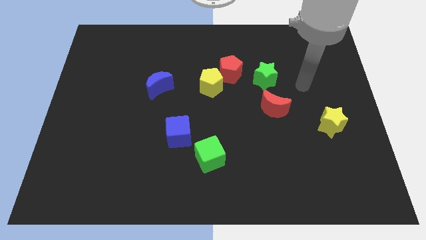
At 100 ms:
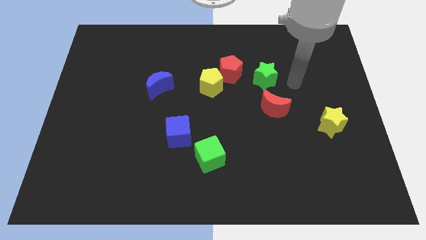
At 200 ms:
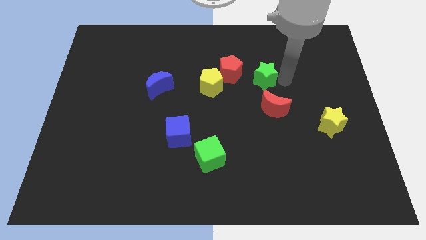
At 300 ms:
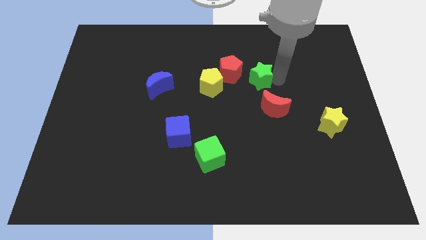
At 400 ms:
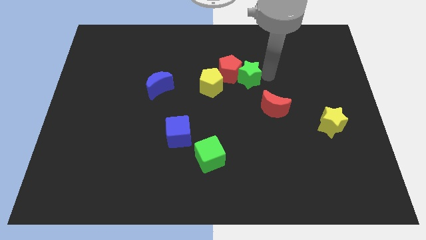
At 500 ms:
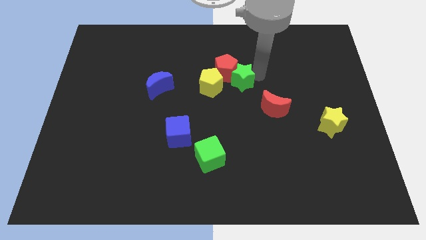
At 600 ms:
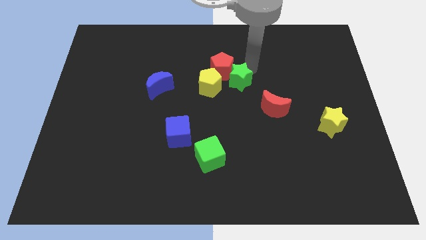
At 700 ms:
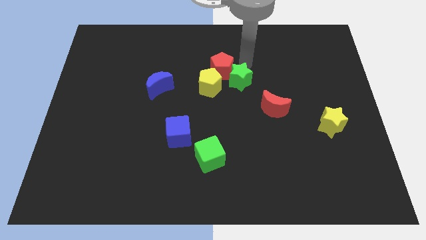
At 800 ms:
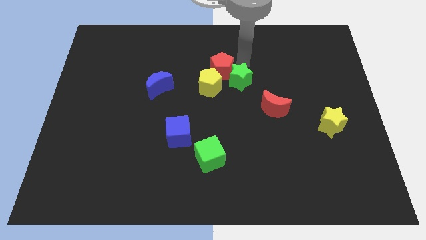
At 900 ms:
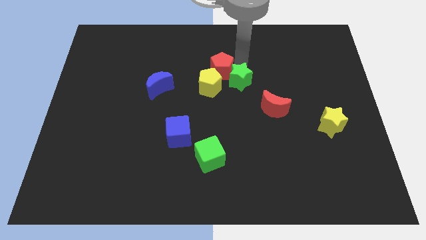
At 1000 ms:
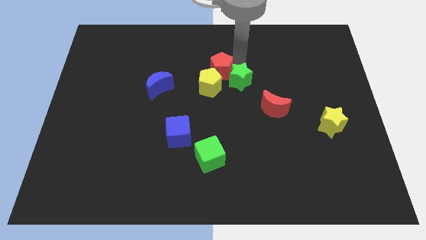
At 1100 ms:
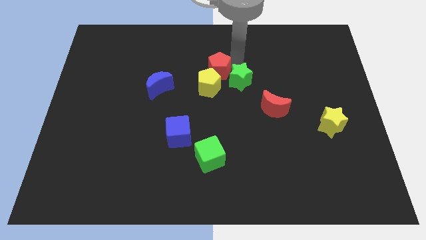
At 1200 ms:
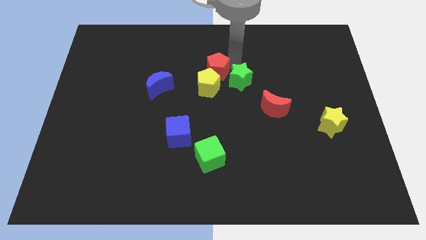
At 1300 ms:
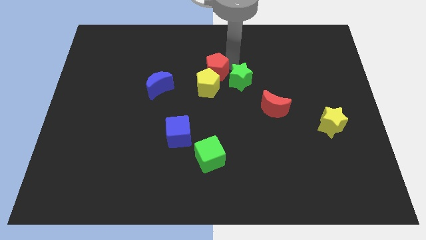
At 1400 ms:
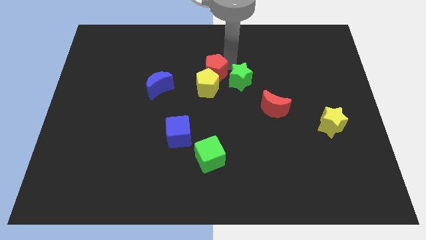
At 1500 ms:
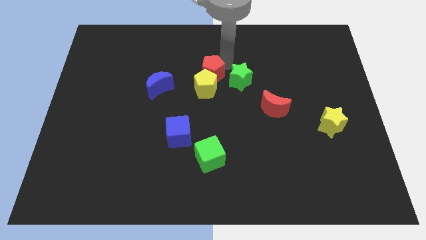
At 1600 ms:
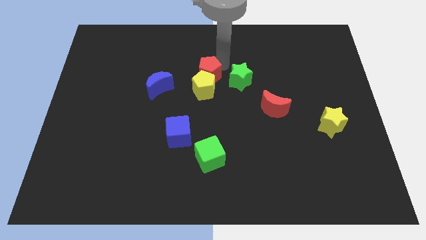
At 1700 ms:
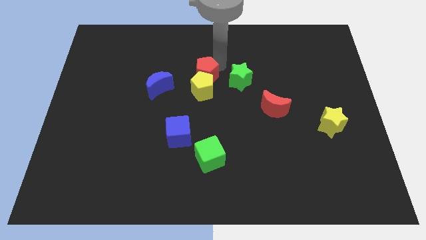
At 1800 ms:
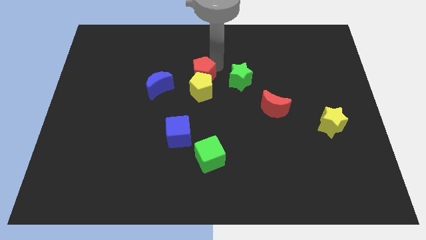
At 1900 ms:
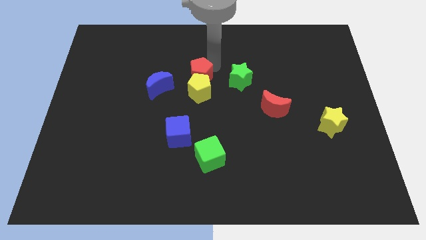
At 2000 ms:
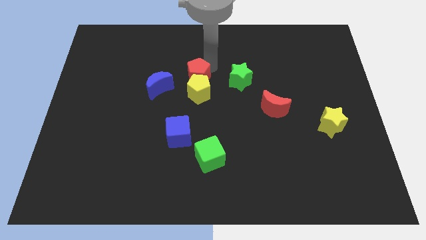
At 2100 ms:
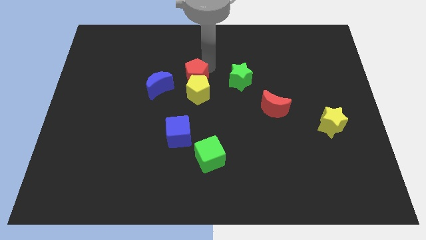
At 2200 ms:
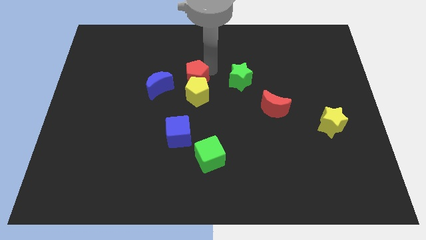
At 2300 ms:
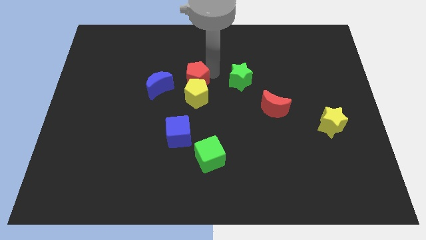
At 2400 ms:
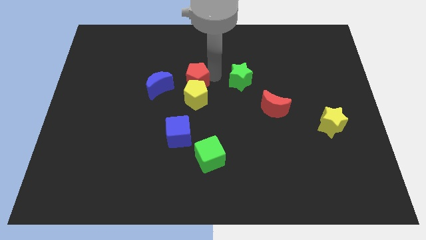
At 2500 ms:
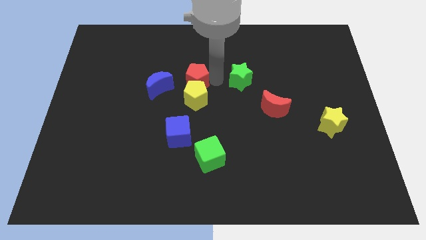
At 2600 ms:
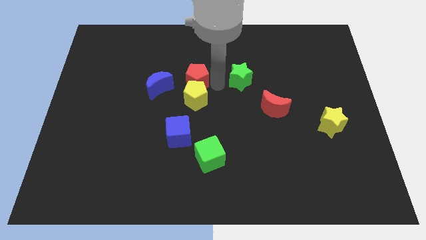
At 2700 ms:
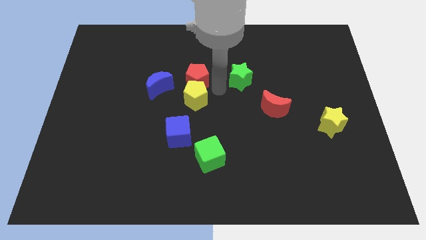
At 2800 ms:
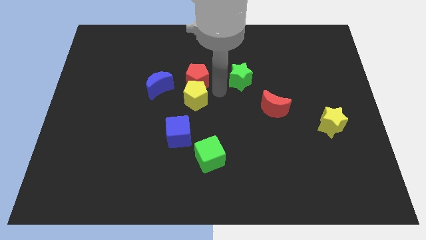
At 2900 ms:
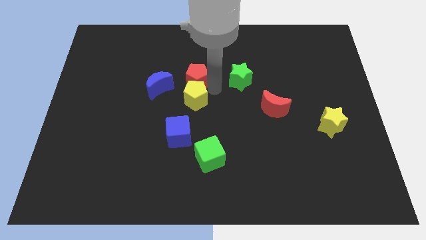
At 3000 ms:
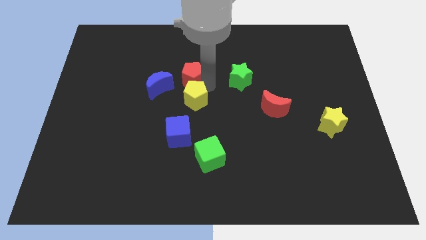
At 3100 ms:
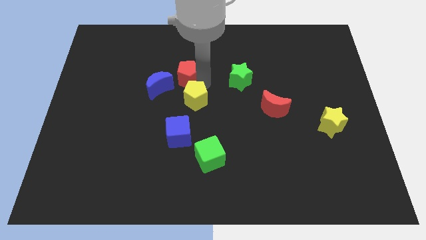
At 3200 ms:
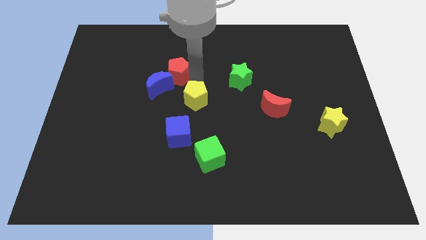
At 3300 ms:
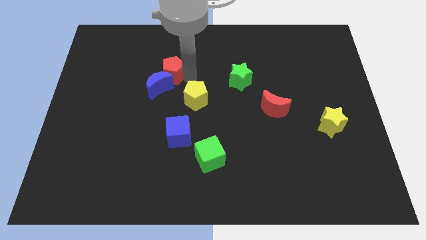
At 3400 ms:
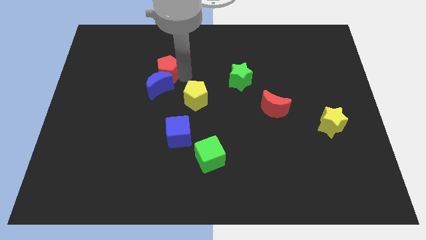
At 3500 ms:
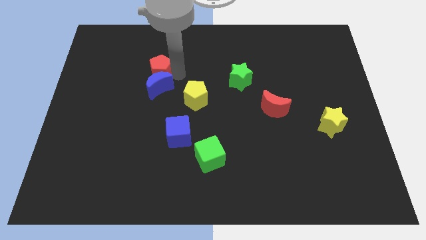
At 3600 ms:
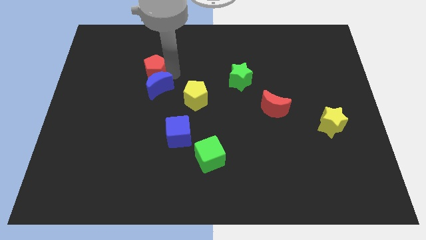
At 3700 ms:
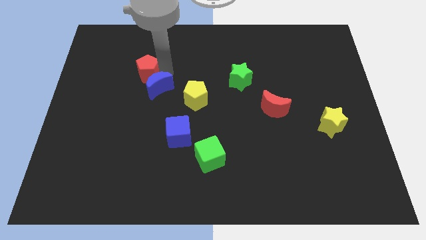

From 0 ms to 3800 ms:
move the red pentagon to the left

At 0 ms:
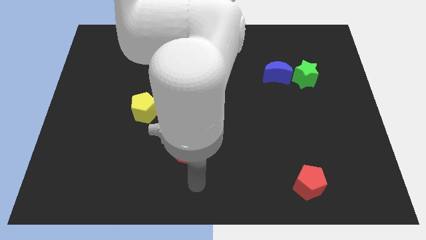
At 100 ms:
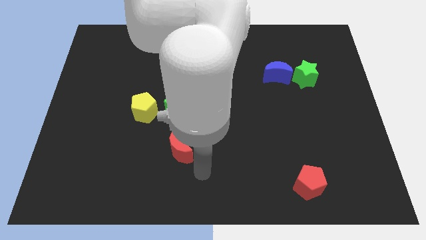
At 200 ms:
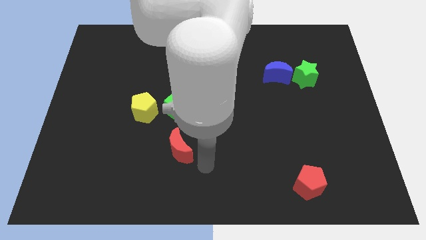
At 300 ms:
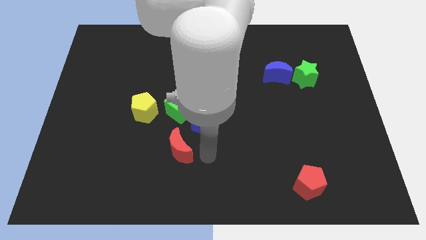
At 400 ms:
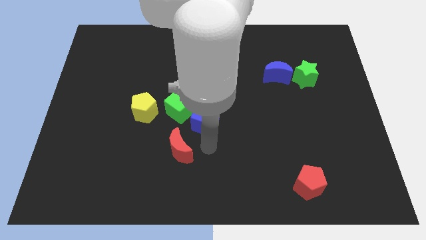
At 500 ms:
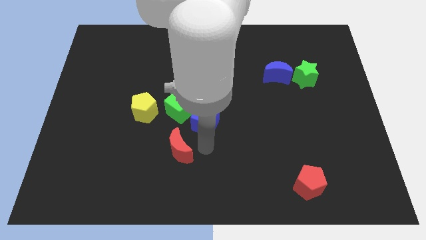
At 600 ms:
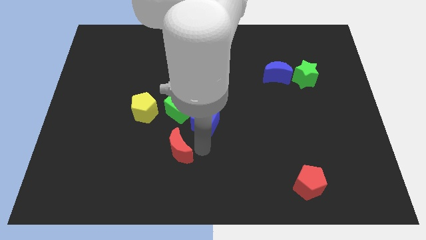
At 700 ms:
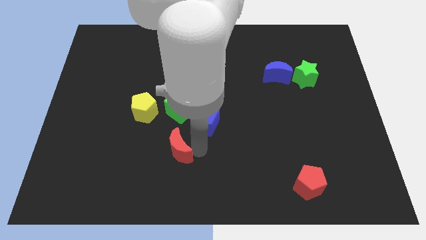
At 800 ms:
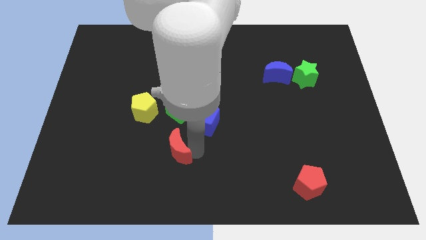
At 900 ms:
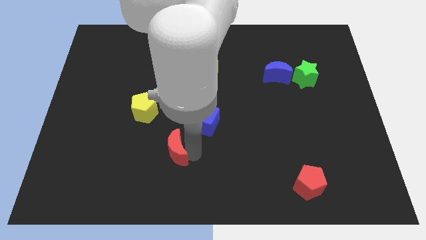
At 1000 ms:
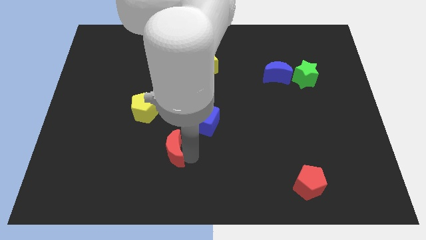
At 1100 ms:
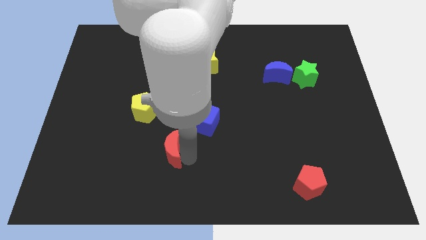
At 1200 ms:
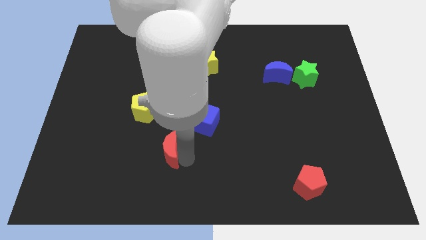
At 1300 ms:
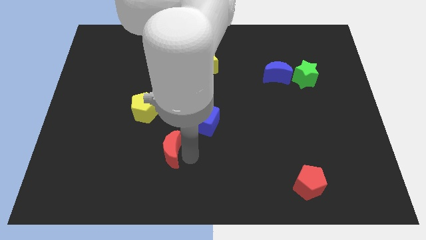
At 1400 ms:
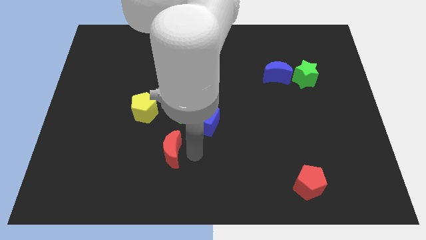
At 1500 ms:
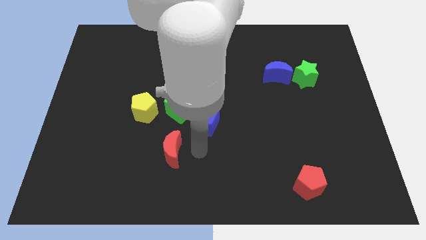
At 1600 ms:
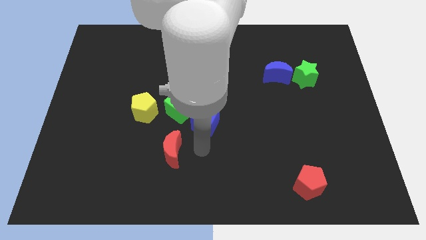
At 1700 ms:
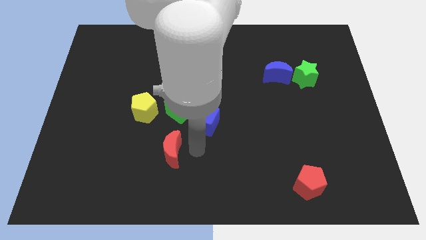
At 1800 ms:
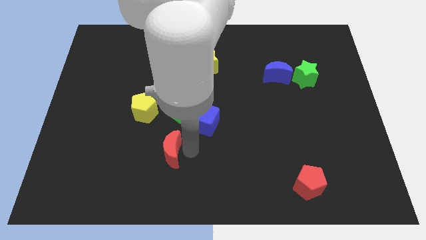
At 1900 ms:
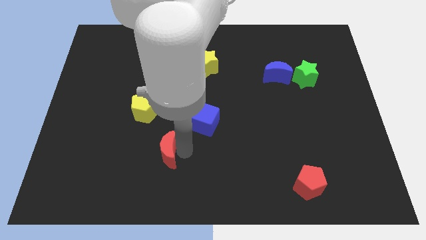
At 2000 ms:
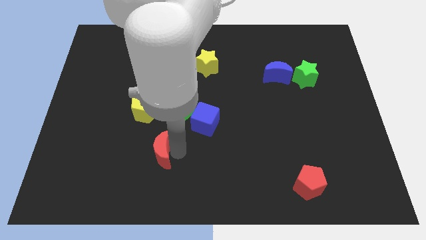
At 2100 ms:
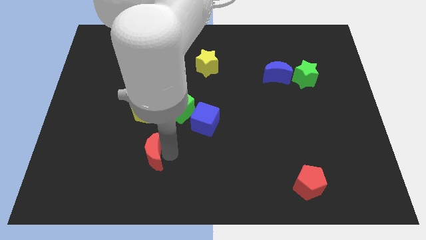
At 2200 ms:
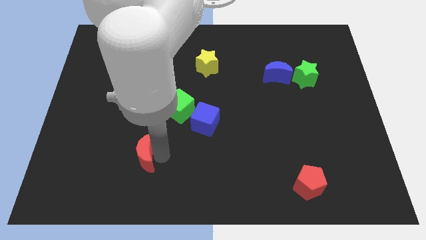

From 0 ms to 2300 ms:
slightly slide the red moon left

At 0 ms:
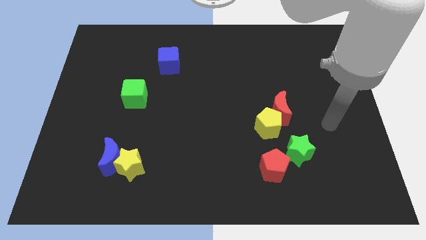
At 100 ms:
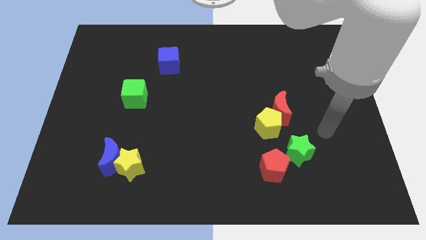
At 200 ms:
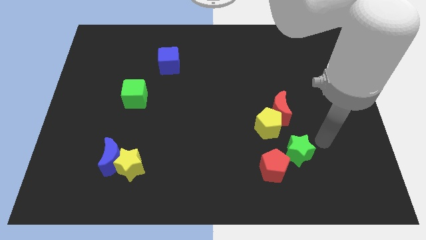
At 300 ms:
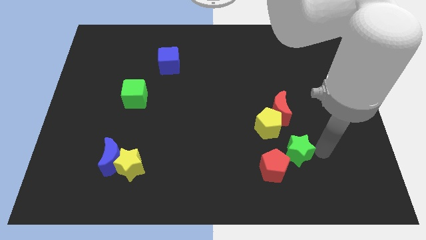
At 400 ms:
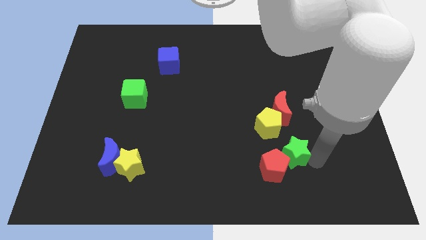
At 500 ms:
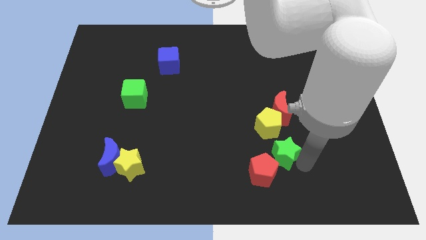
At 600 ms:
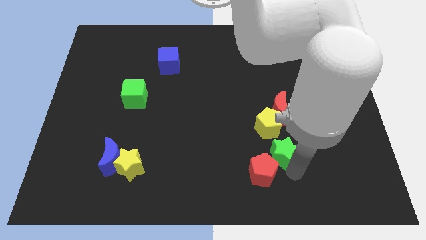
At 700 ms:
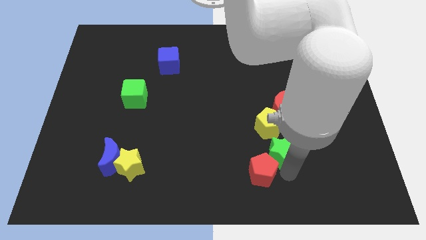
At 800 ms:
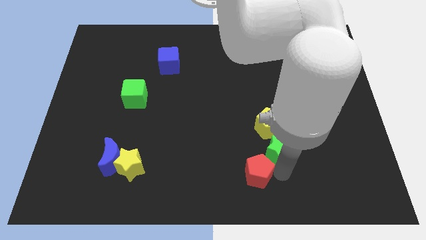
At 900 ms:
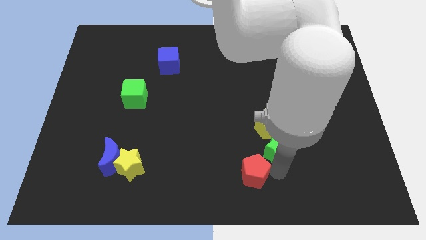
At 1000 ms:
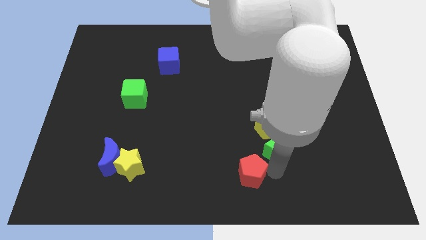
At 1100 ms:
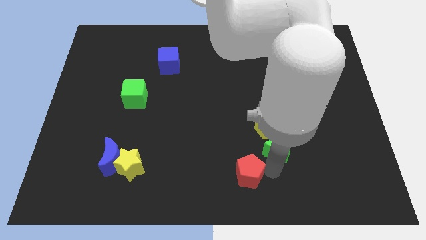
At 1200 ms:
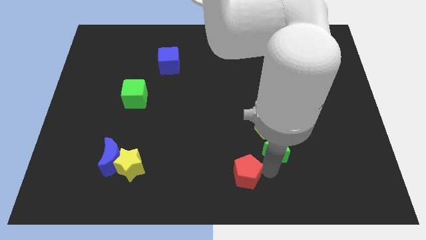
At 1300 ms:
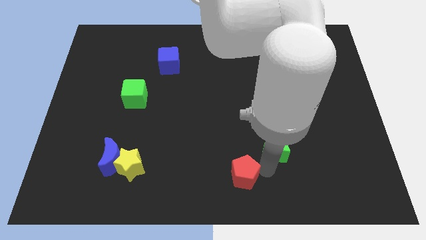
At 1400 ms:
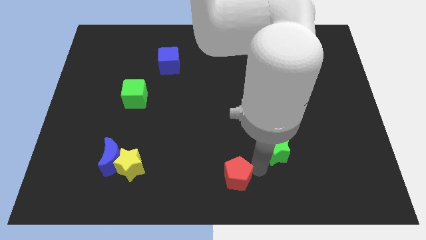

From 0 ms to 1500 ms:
push the red pentagon somewhat left

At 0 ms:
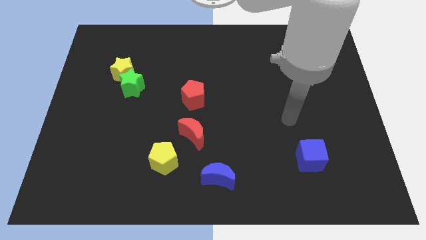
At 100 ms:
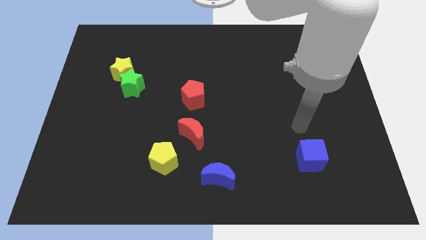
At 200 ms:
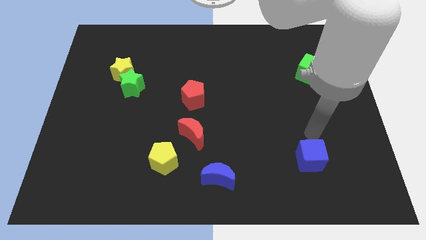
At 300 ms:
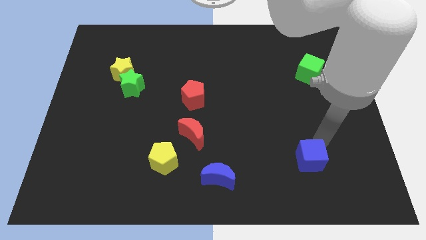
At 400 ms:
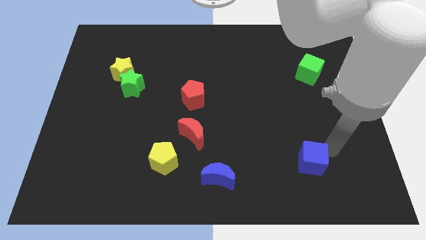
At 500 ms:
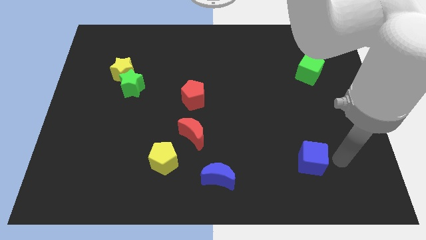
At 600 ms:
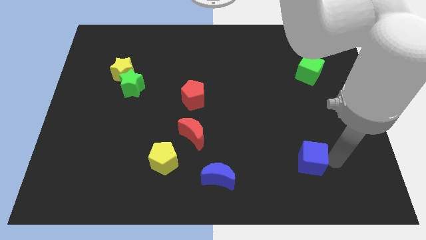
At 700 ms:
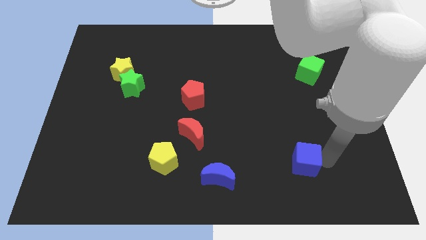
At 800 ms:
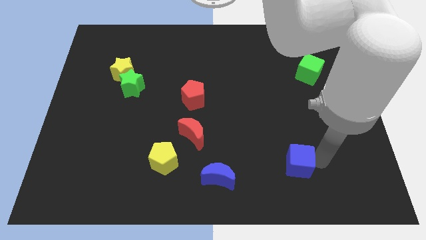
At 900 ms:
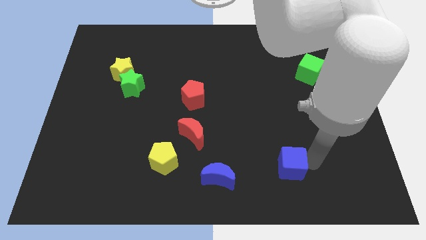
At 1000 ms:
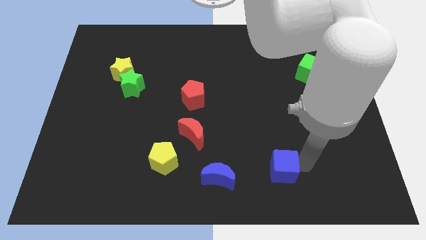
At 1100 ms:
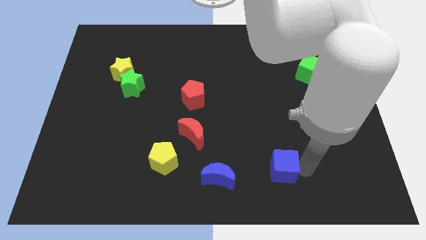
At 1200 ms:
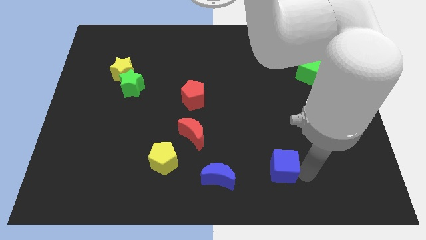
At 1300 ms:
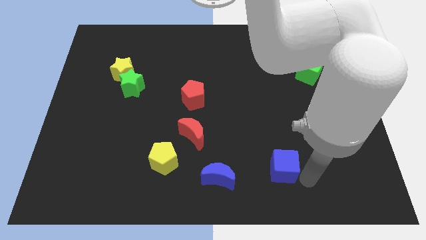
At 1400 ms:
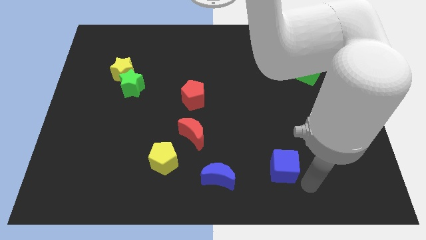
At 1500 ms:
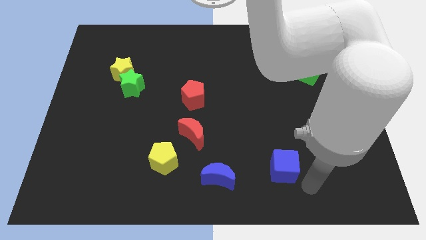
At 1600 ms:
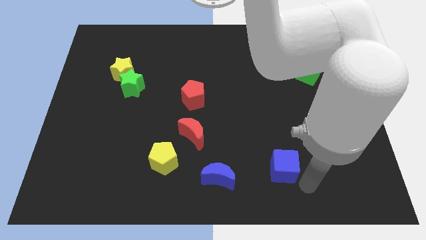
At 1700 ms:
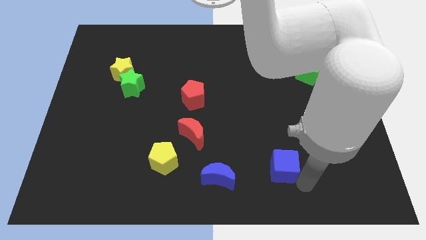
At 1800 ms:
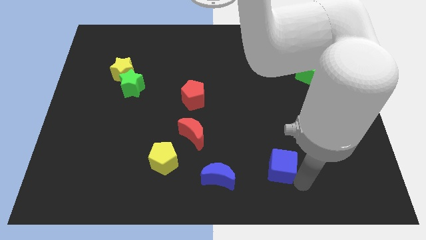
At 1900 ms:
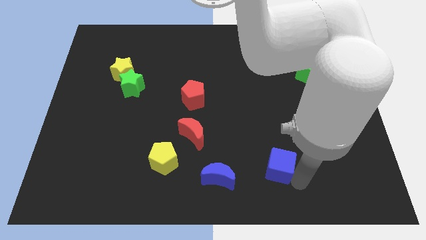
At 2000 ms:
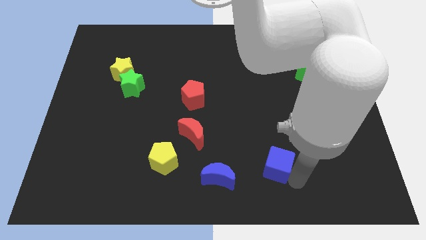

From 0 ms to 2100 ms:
slide the blue cube to the left a little
